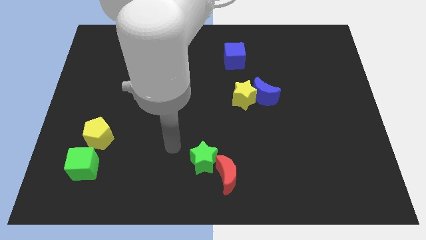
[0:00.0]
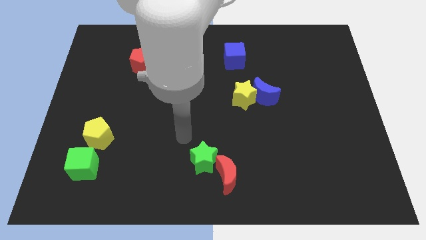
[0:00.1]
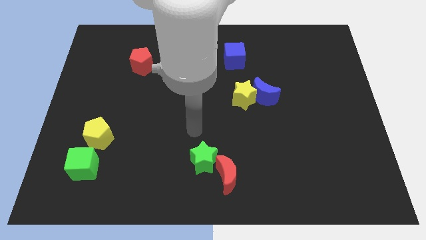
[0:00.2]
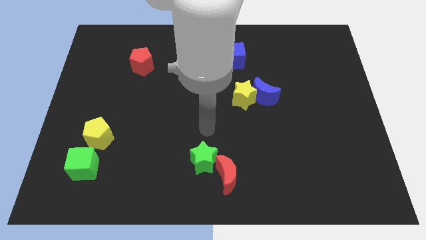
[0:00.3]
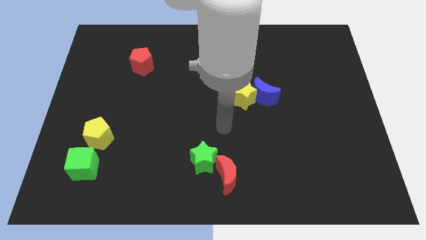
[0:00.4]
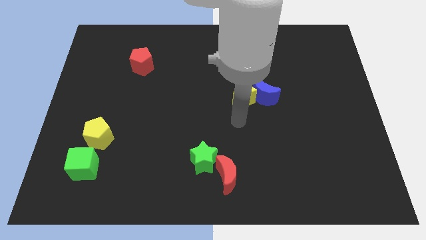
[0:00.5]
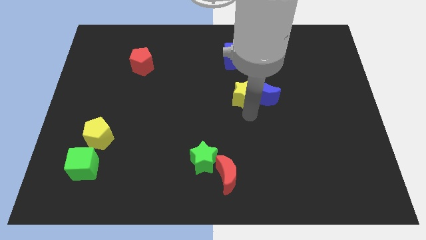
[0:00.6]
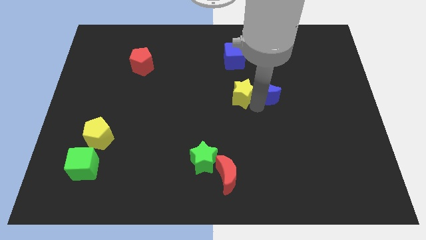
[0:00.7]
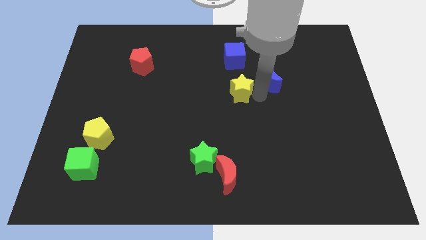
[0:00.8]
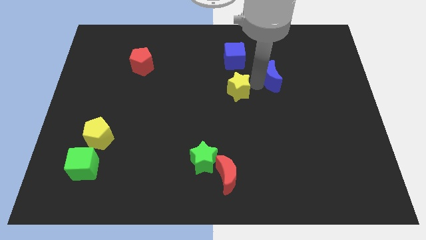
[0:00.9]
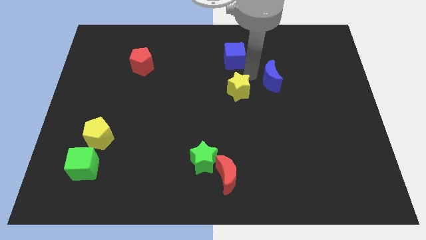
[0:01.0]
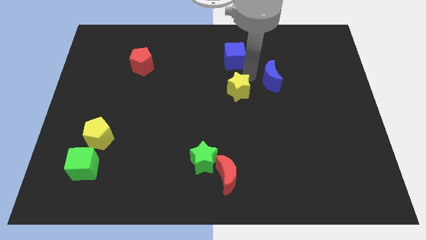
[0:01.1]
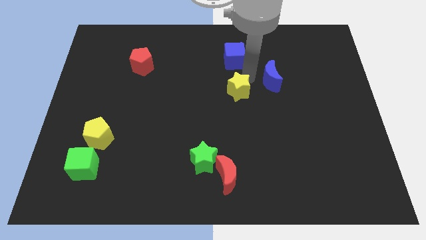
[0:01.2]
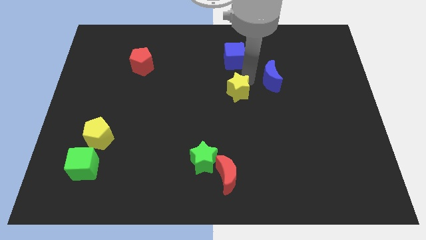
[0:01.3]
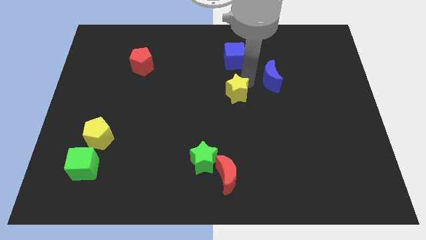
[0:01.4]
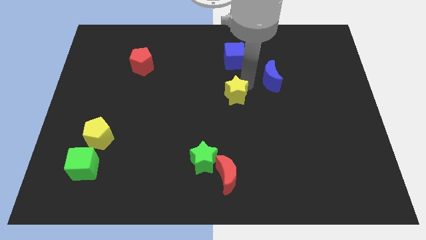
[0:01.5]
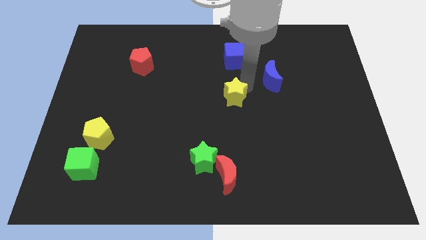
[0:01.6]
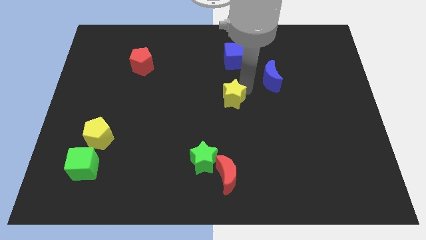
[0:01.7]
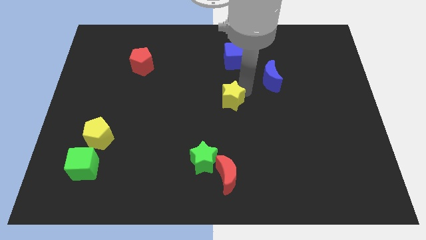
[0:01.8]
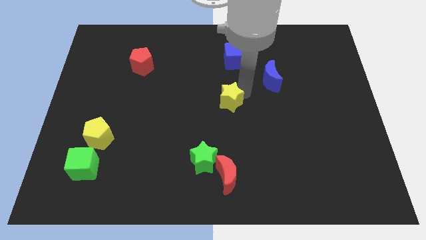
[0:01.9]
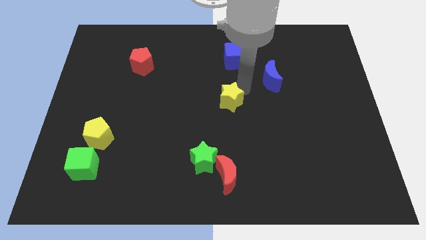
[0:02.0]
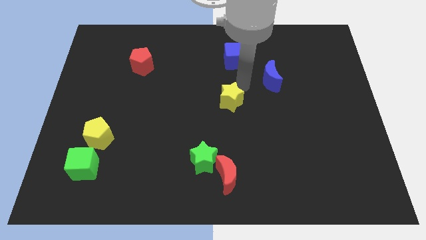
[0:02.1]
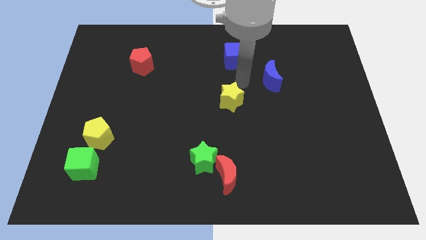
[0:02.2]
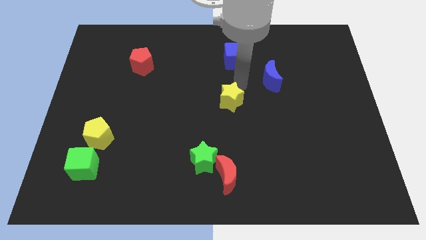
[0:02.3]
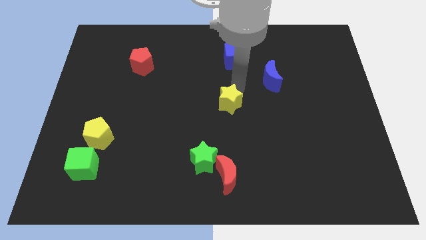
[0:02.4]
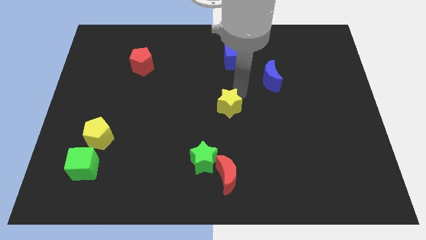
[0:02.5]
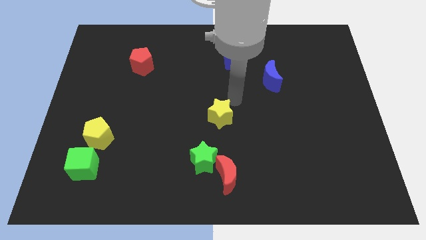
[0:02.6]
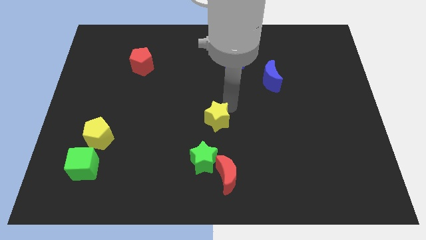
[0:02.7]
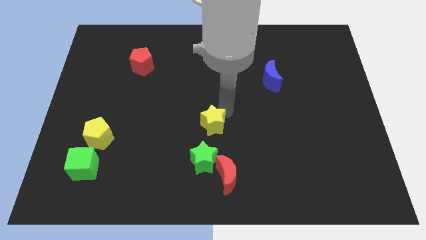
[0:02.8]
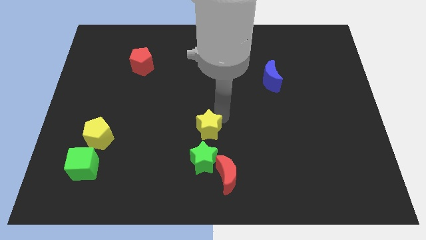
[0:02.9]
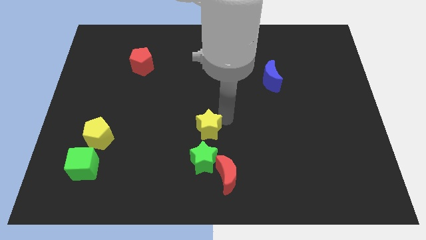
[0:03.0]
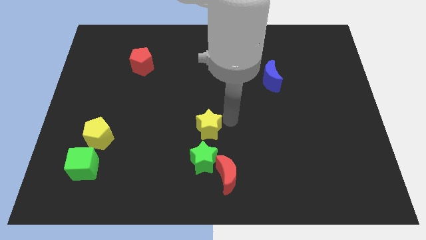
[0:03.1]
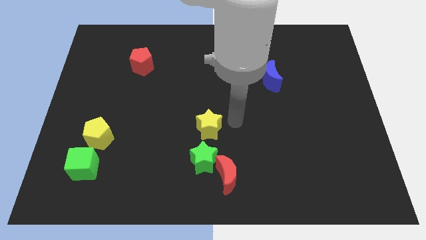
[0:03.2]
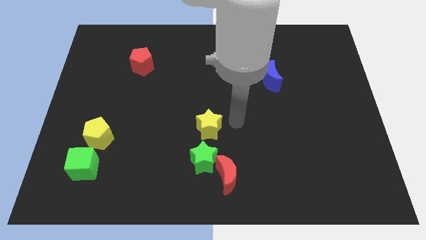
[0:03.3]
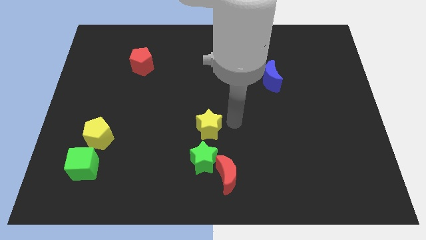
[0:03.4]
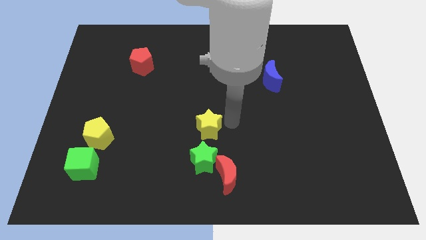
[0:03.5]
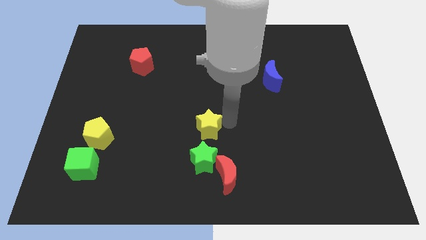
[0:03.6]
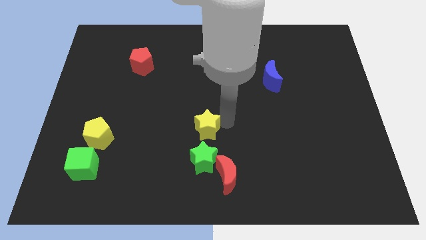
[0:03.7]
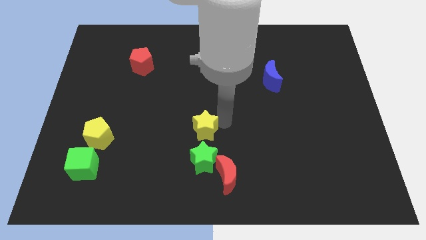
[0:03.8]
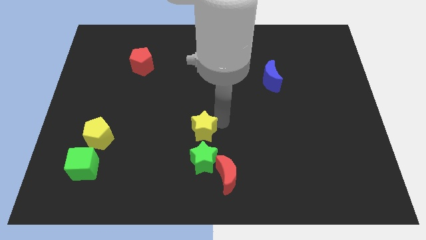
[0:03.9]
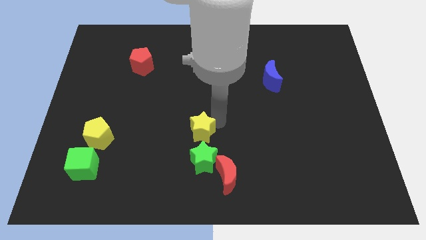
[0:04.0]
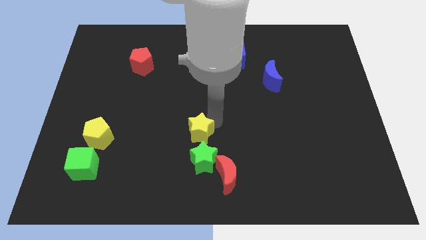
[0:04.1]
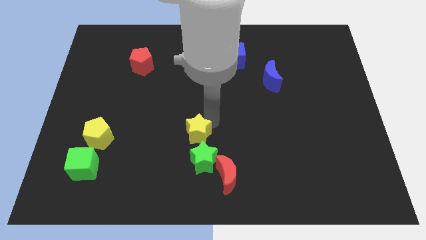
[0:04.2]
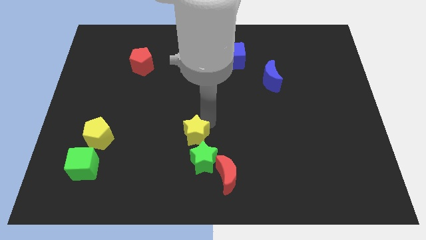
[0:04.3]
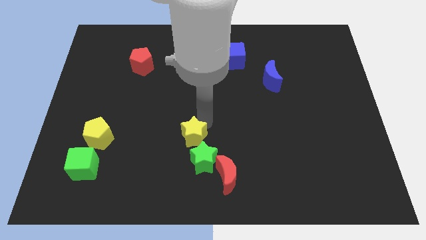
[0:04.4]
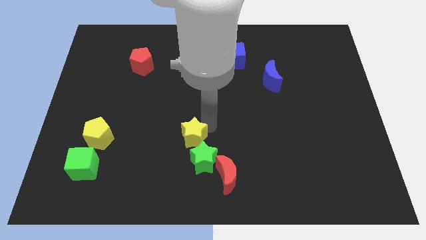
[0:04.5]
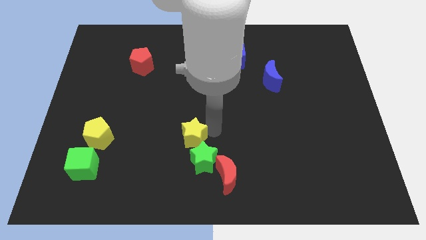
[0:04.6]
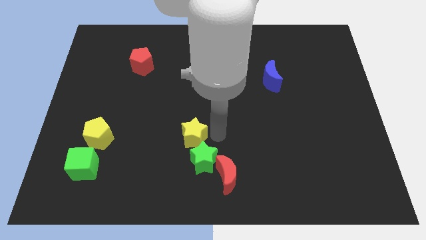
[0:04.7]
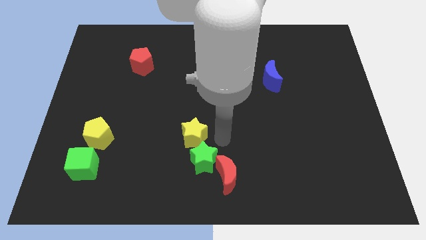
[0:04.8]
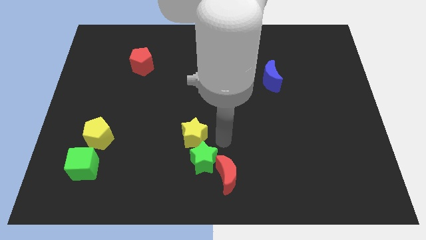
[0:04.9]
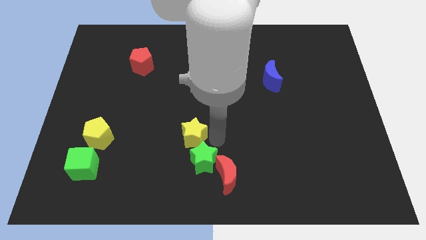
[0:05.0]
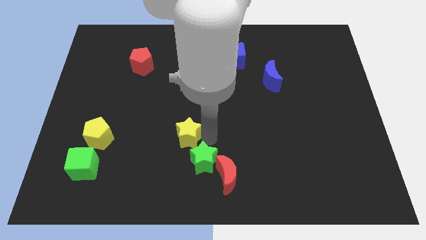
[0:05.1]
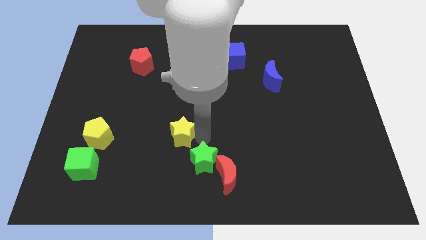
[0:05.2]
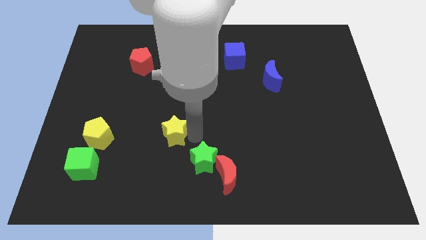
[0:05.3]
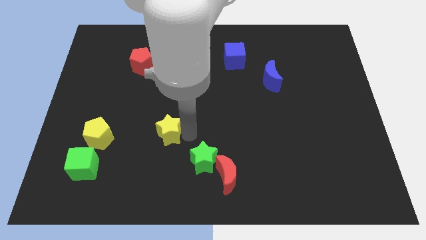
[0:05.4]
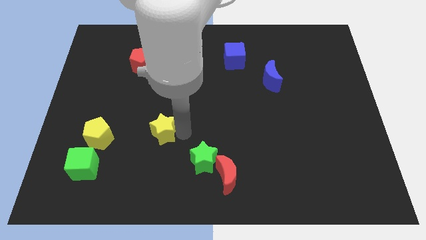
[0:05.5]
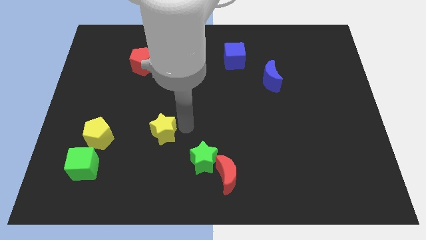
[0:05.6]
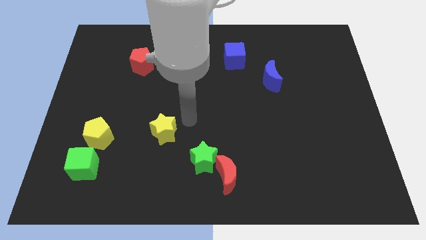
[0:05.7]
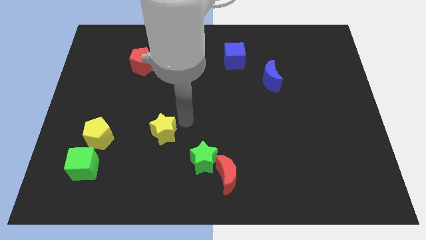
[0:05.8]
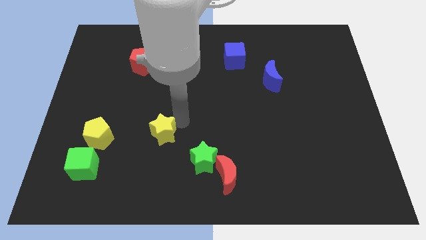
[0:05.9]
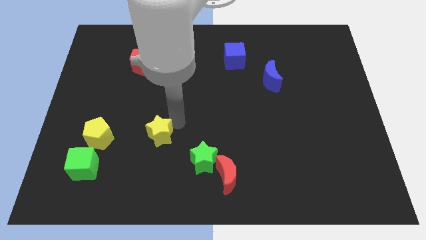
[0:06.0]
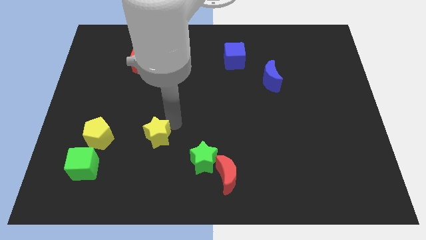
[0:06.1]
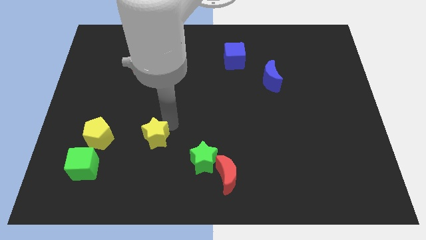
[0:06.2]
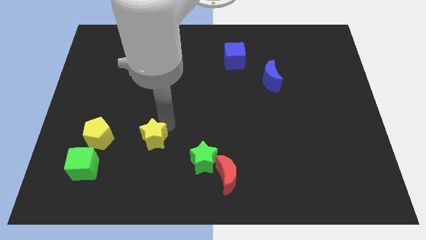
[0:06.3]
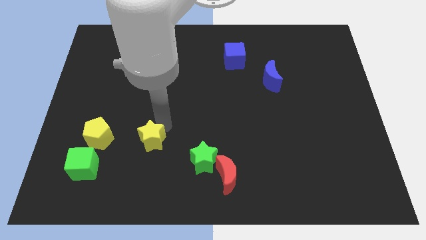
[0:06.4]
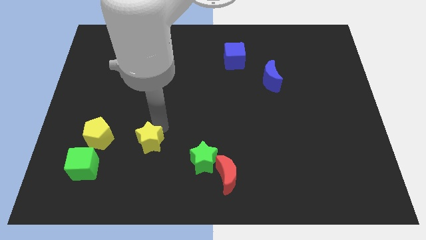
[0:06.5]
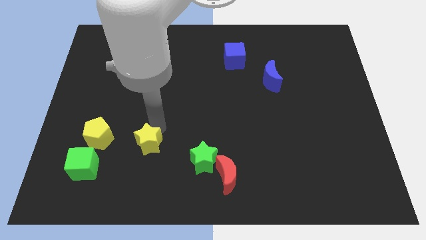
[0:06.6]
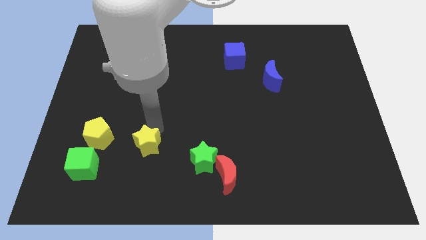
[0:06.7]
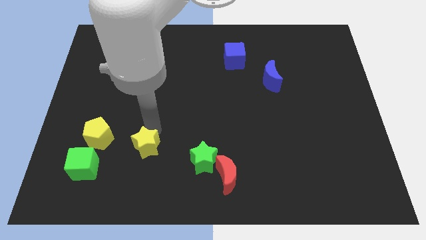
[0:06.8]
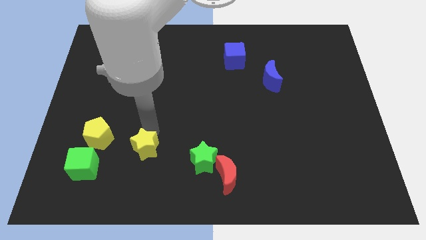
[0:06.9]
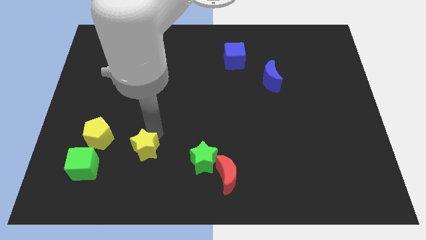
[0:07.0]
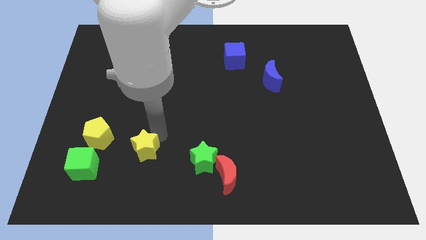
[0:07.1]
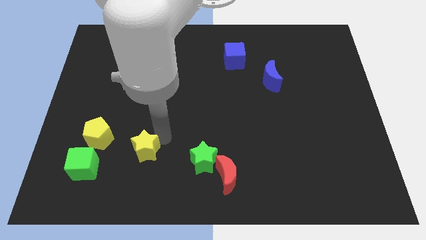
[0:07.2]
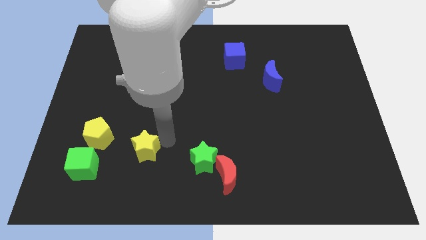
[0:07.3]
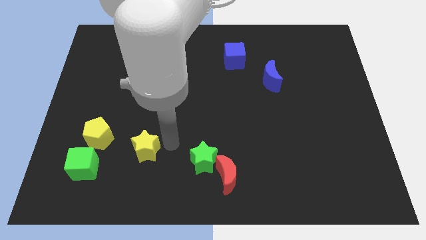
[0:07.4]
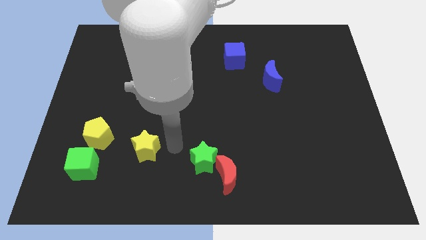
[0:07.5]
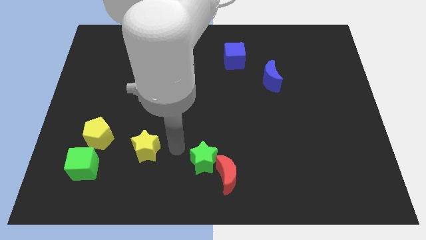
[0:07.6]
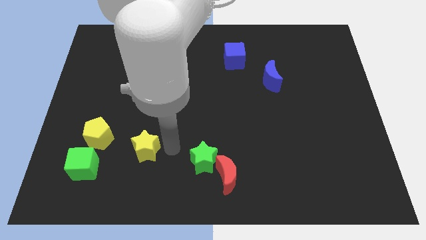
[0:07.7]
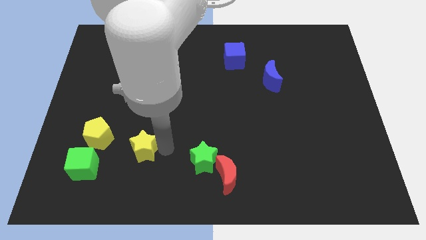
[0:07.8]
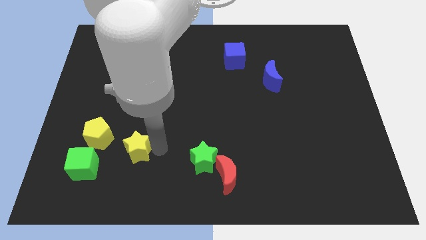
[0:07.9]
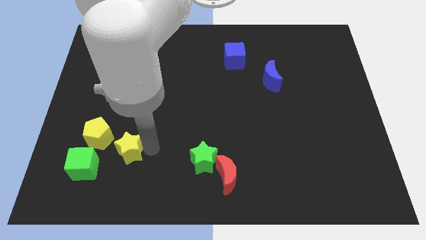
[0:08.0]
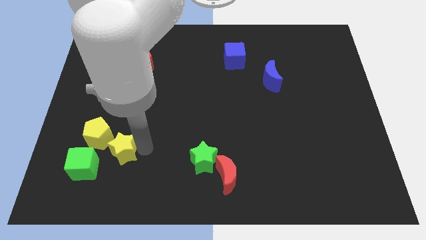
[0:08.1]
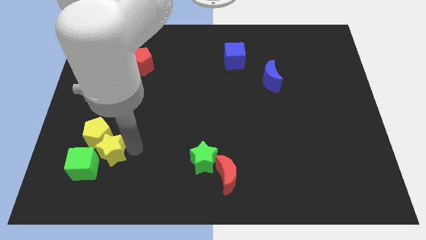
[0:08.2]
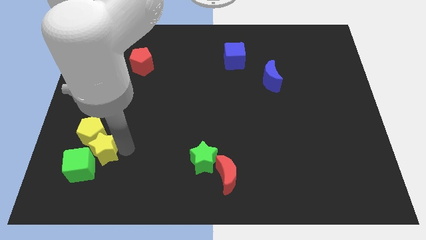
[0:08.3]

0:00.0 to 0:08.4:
move the yellow star towards the green cube
